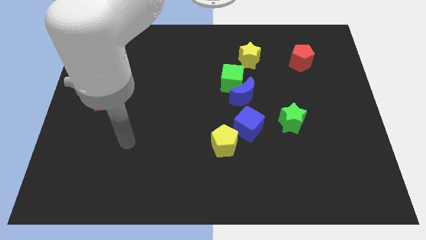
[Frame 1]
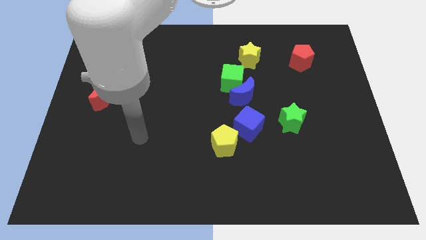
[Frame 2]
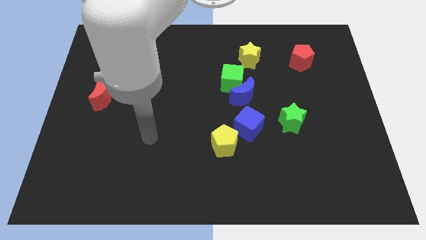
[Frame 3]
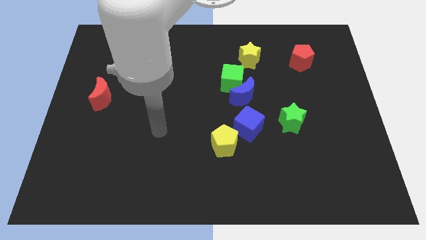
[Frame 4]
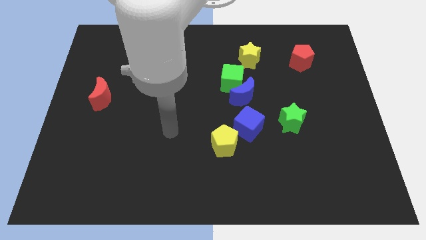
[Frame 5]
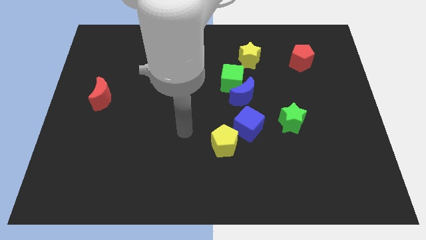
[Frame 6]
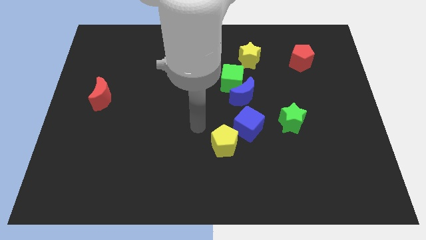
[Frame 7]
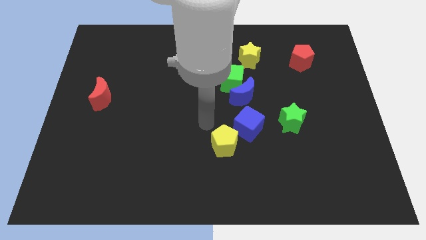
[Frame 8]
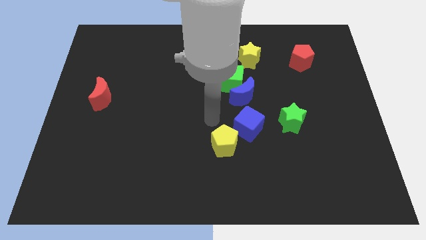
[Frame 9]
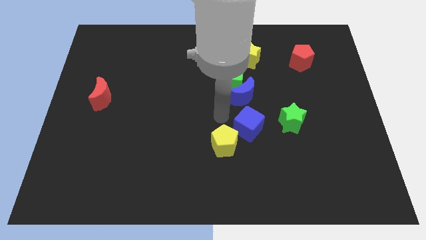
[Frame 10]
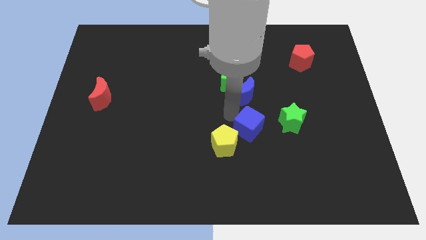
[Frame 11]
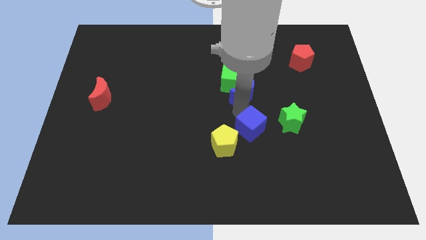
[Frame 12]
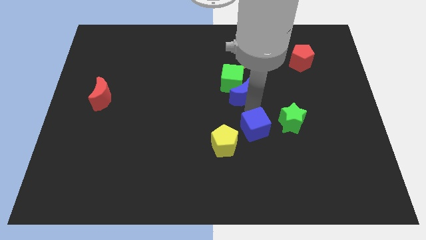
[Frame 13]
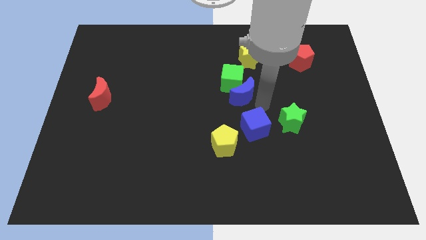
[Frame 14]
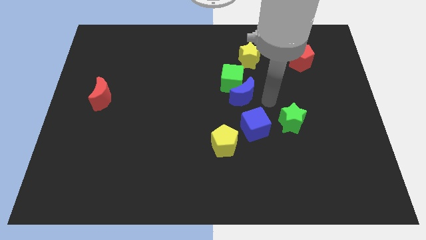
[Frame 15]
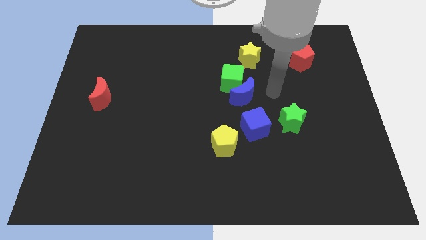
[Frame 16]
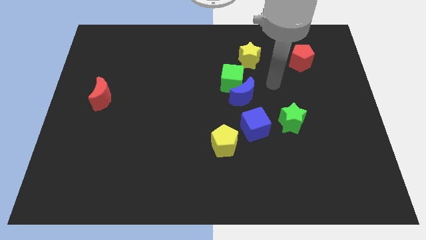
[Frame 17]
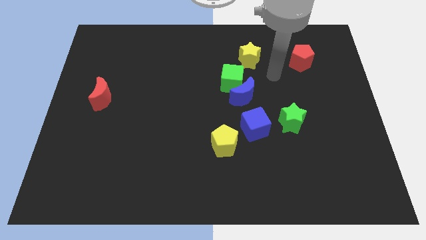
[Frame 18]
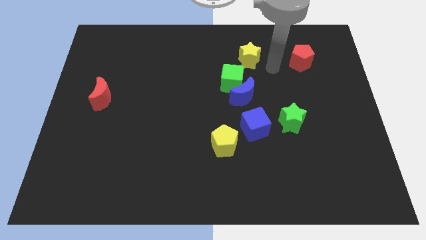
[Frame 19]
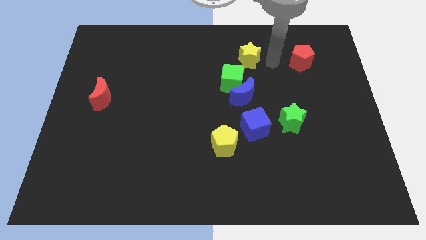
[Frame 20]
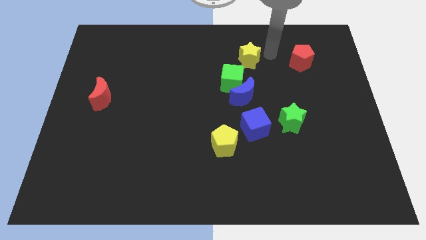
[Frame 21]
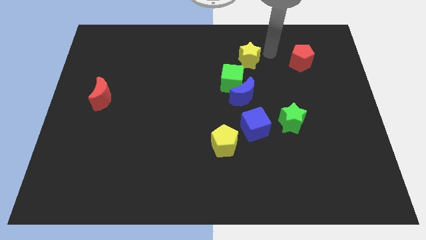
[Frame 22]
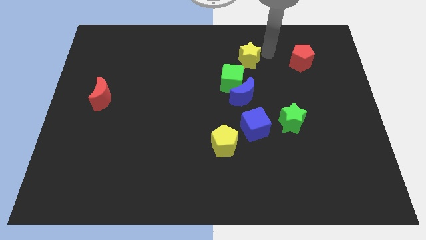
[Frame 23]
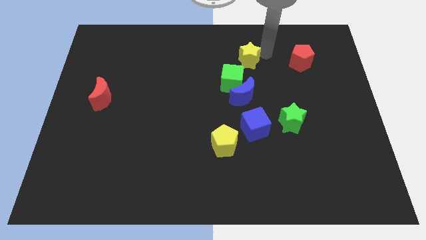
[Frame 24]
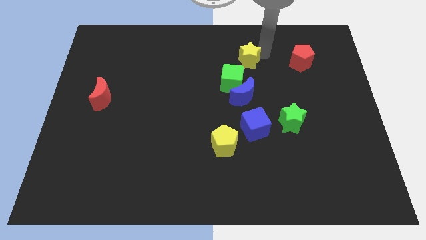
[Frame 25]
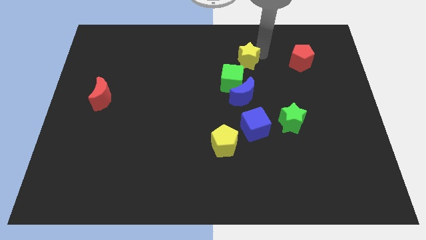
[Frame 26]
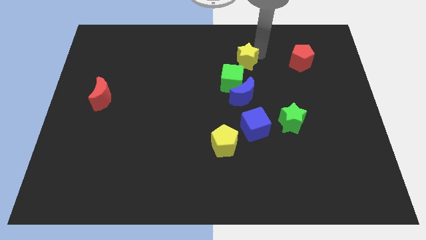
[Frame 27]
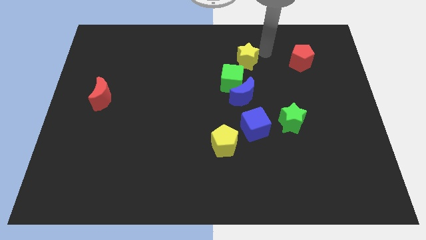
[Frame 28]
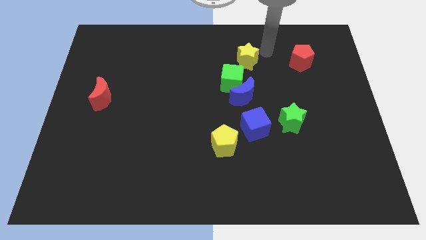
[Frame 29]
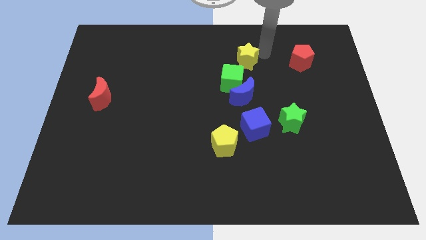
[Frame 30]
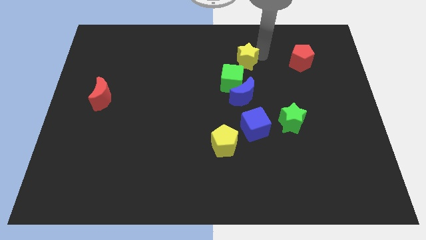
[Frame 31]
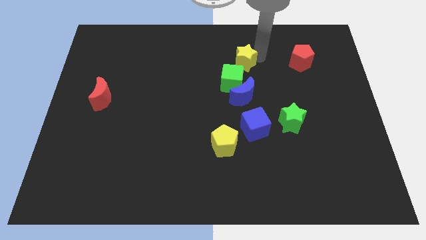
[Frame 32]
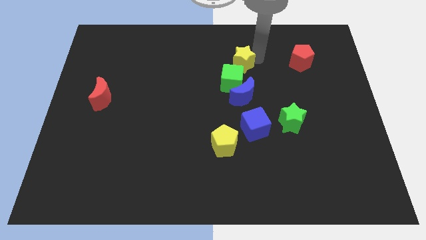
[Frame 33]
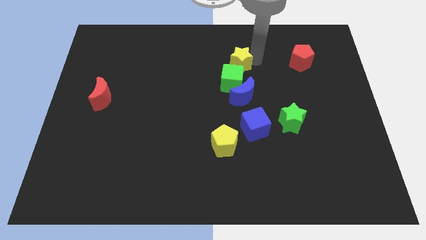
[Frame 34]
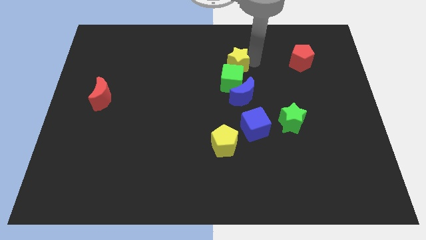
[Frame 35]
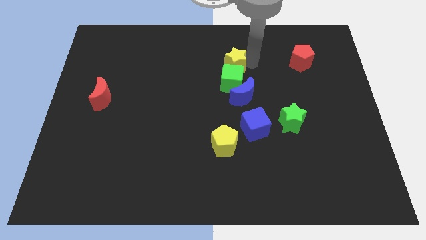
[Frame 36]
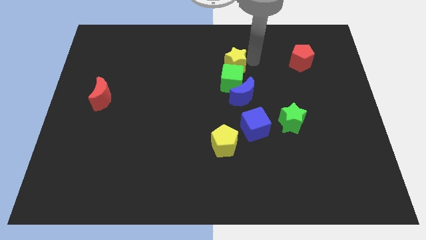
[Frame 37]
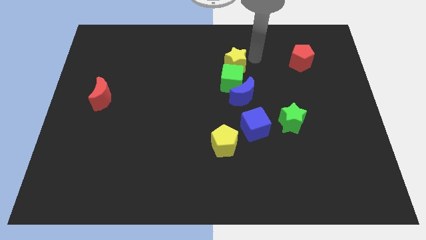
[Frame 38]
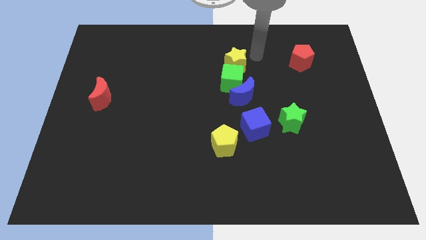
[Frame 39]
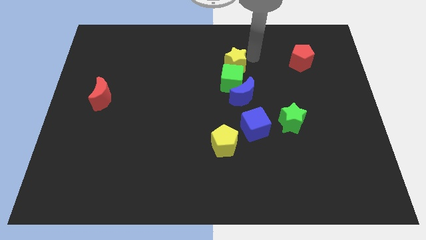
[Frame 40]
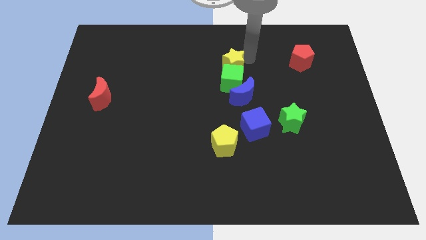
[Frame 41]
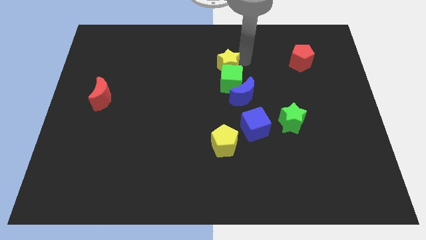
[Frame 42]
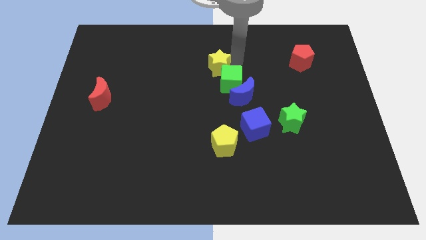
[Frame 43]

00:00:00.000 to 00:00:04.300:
slightly slide the yellow star downwards and left

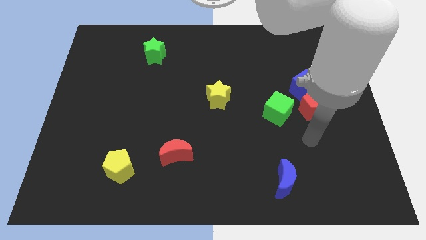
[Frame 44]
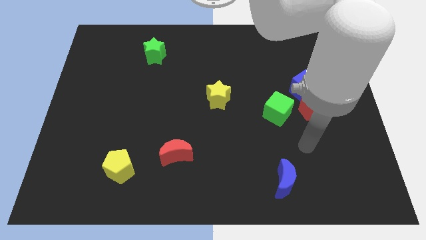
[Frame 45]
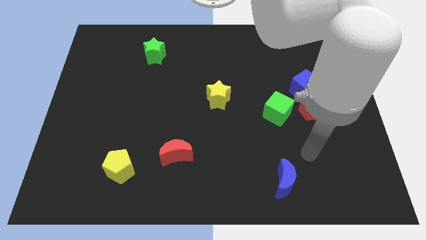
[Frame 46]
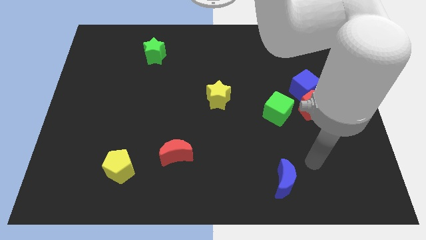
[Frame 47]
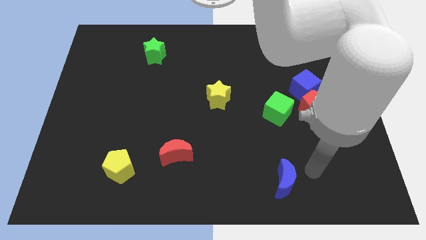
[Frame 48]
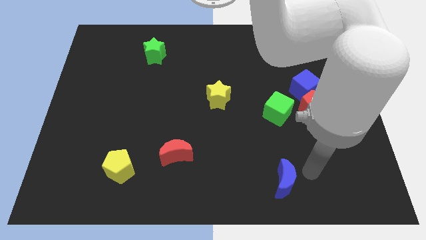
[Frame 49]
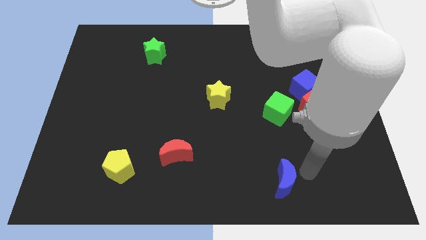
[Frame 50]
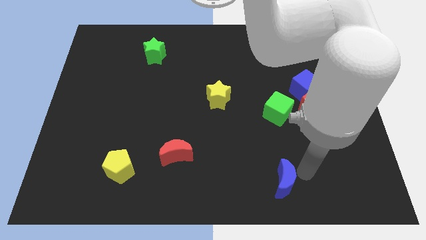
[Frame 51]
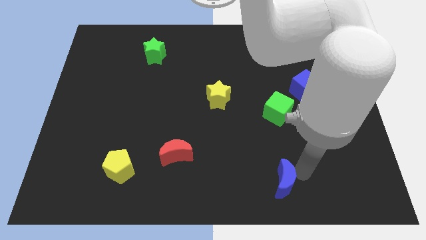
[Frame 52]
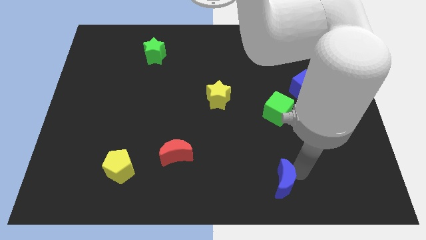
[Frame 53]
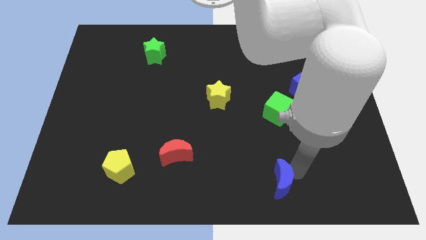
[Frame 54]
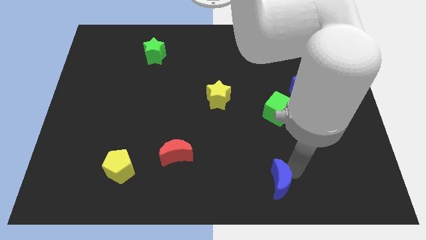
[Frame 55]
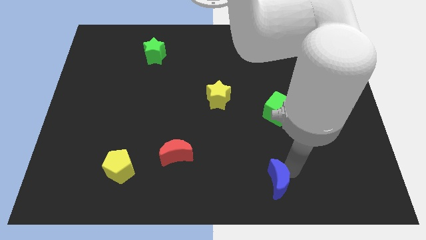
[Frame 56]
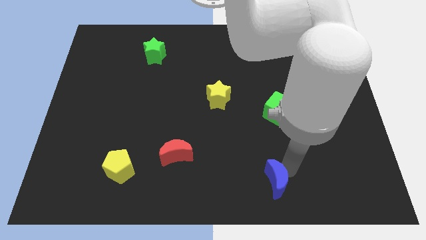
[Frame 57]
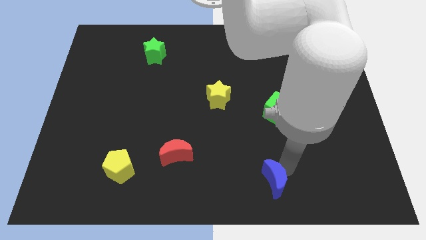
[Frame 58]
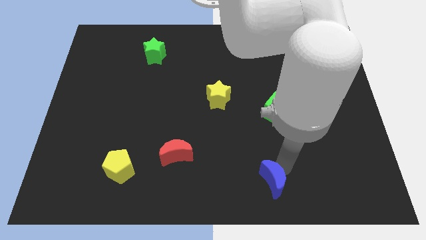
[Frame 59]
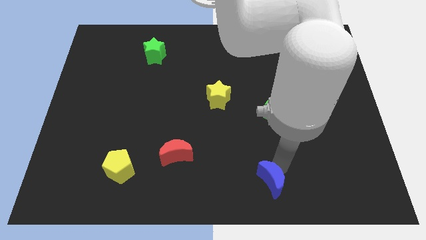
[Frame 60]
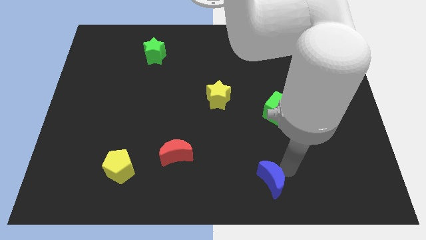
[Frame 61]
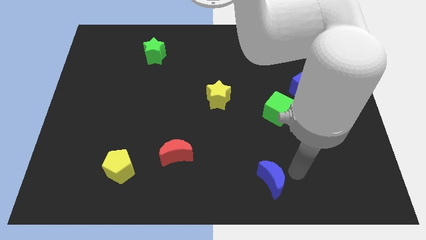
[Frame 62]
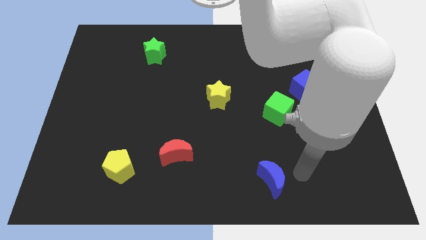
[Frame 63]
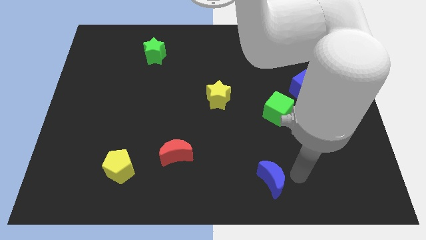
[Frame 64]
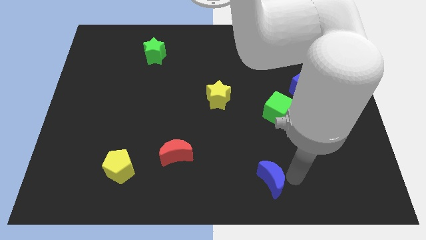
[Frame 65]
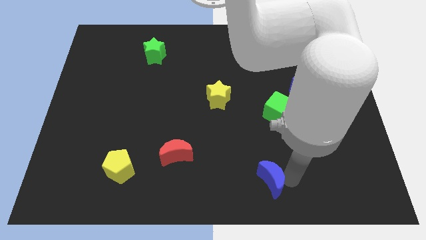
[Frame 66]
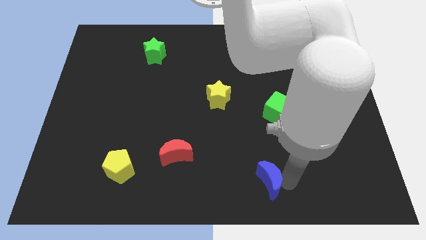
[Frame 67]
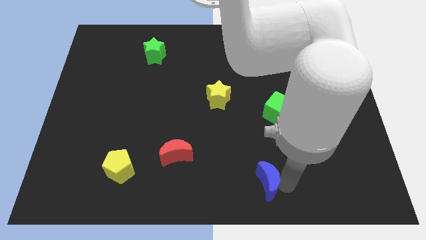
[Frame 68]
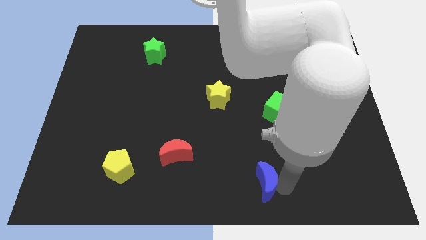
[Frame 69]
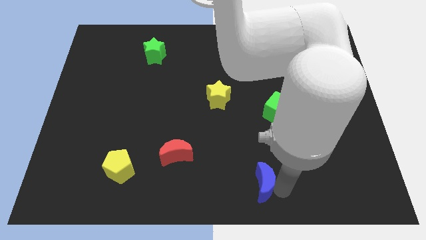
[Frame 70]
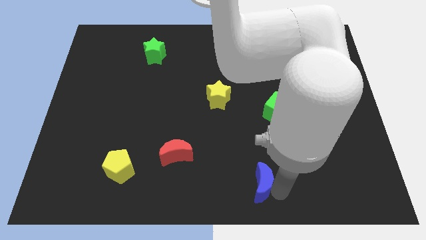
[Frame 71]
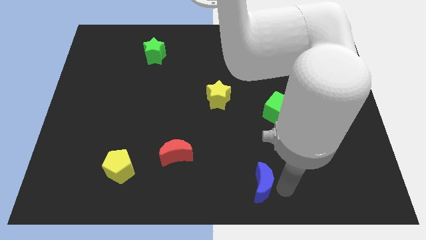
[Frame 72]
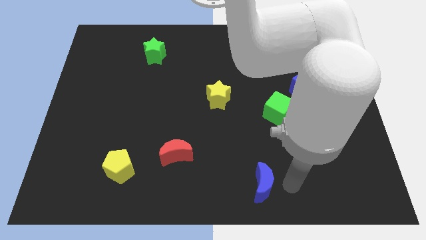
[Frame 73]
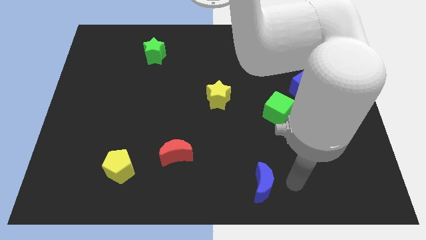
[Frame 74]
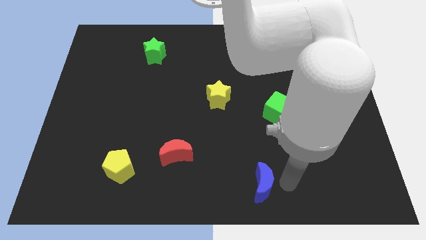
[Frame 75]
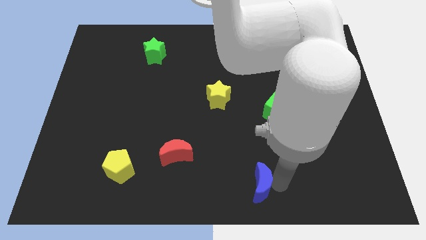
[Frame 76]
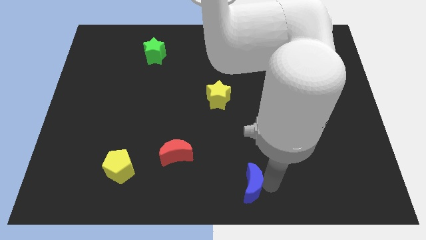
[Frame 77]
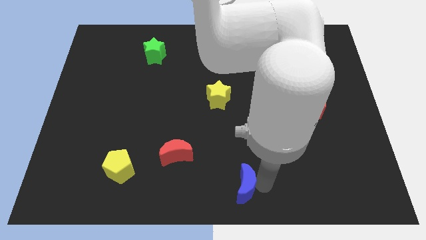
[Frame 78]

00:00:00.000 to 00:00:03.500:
slide the blue moon somewhat left

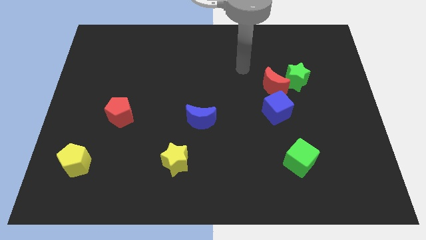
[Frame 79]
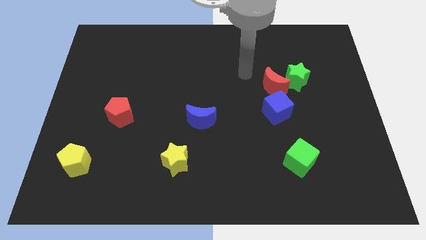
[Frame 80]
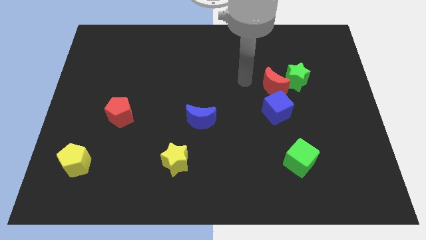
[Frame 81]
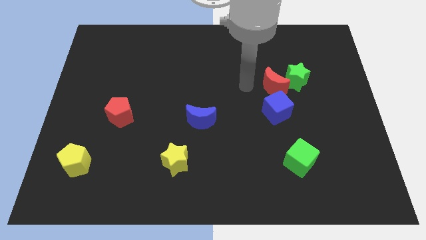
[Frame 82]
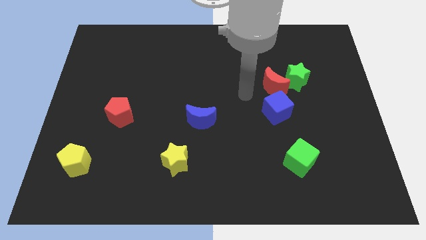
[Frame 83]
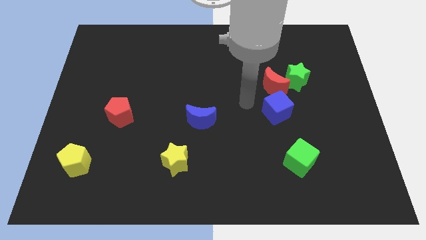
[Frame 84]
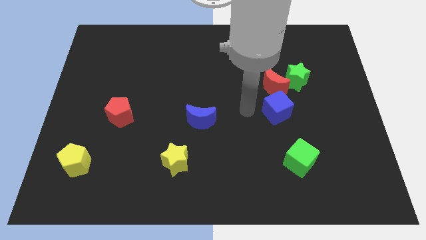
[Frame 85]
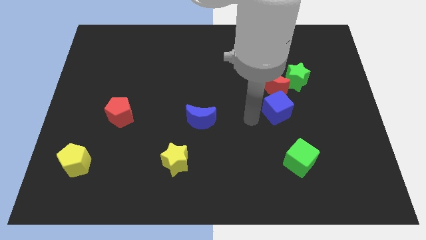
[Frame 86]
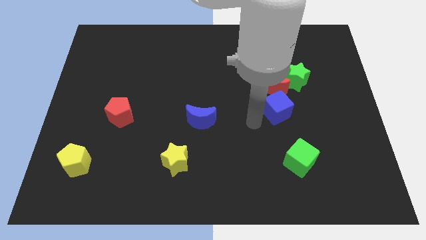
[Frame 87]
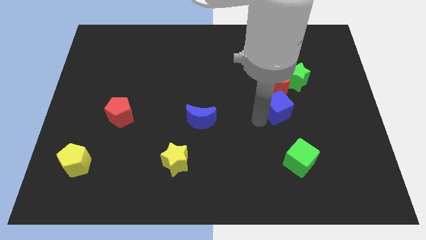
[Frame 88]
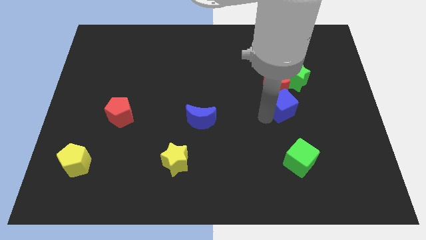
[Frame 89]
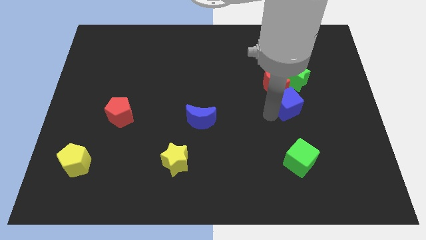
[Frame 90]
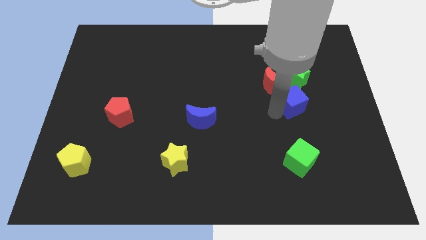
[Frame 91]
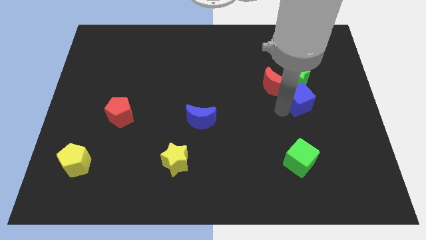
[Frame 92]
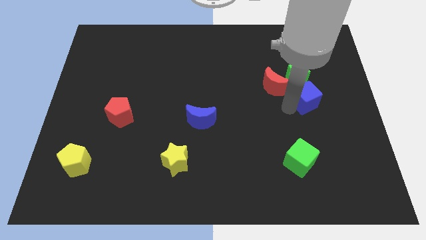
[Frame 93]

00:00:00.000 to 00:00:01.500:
move the blue cube somewhat upwards and then to the right
